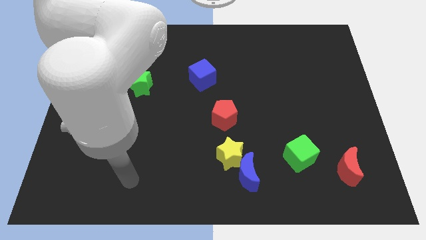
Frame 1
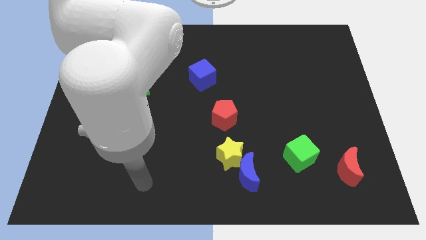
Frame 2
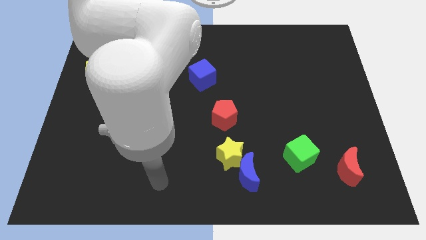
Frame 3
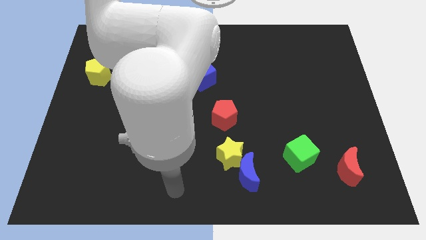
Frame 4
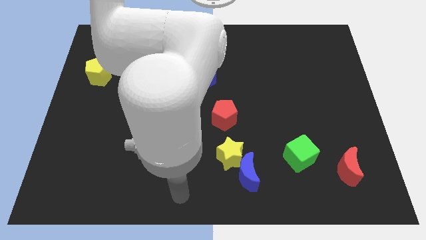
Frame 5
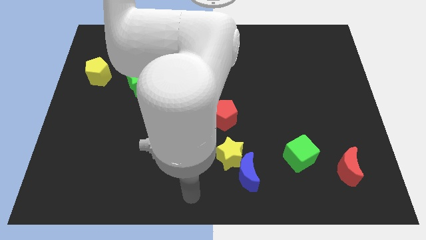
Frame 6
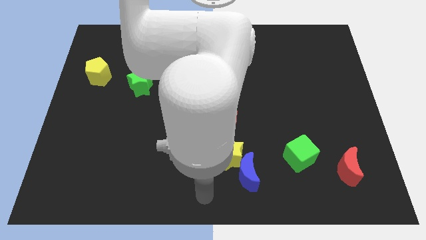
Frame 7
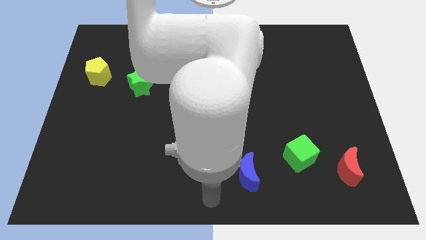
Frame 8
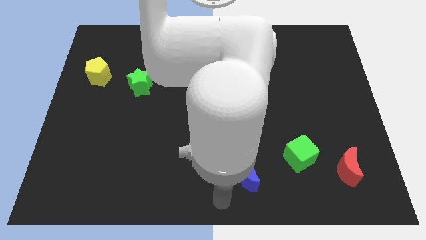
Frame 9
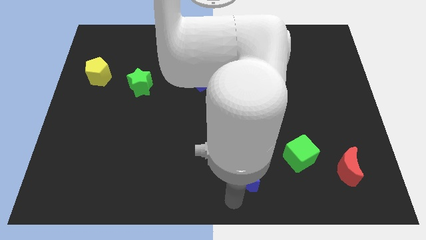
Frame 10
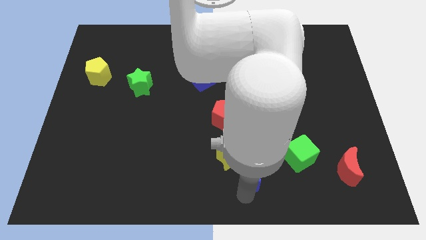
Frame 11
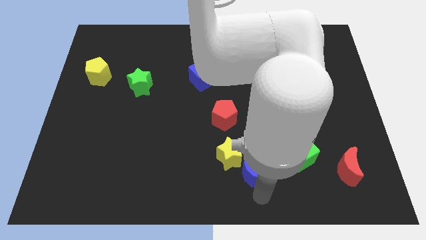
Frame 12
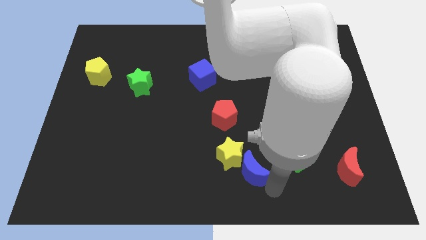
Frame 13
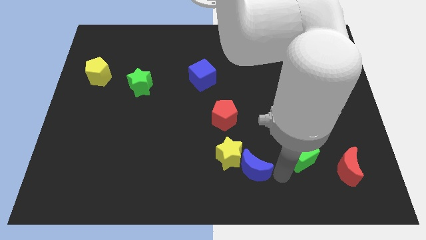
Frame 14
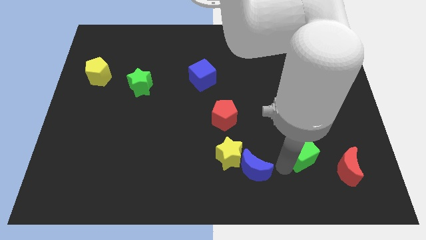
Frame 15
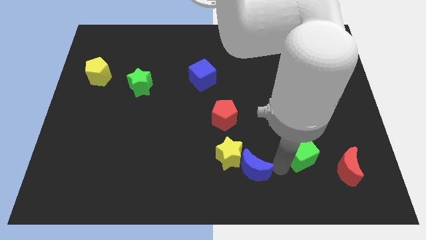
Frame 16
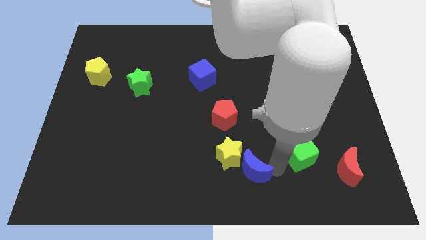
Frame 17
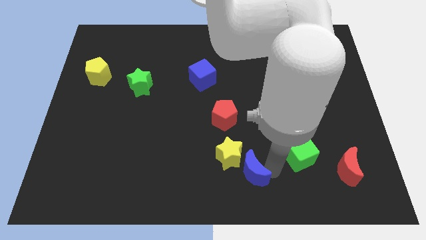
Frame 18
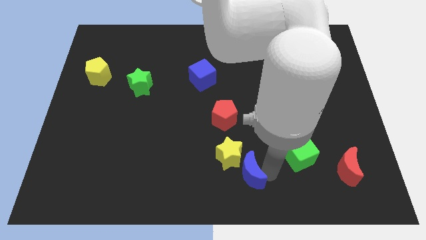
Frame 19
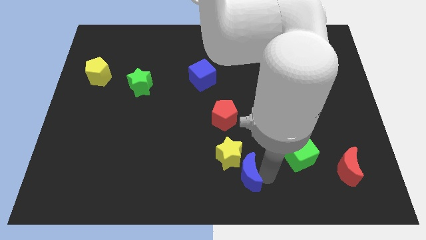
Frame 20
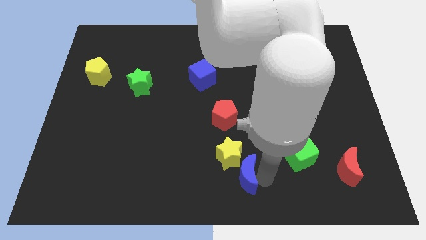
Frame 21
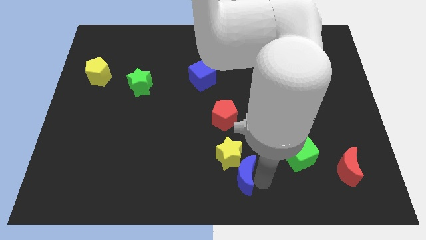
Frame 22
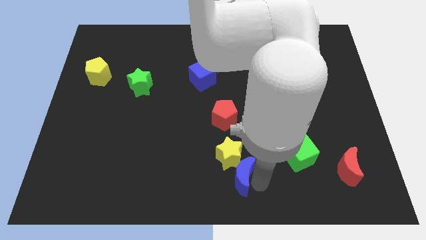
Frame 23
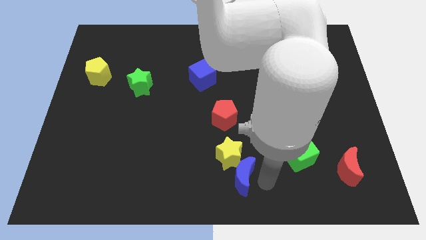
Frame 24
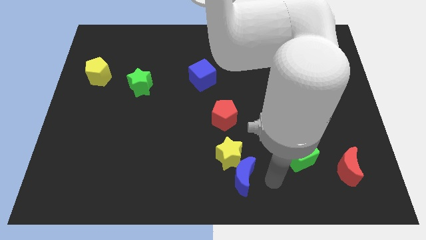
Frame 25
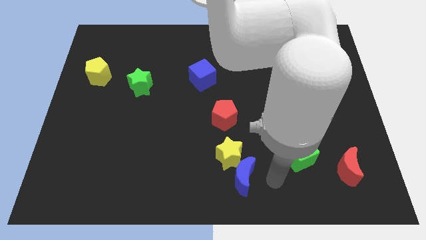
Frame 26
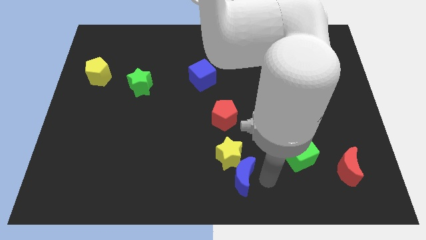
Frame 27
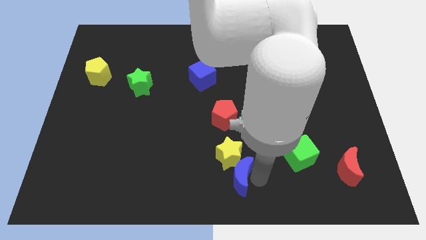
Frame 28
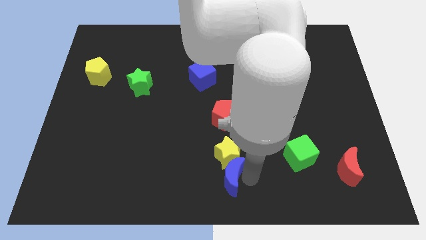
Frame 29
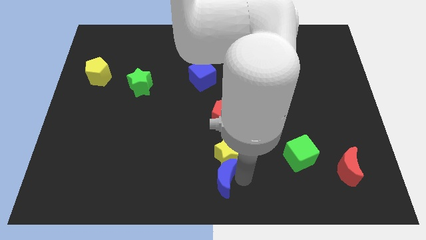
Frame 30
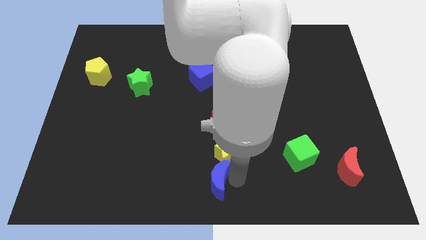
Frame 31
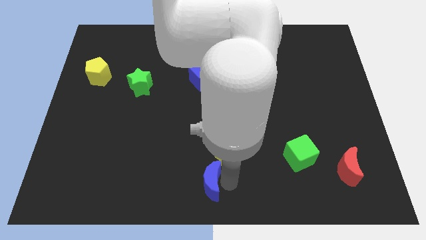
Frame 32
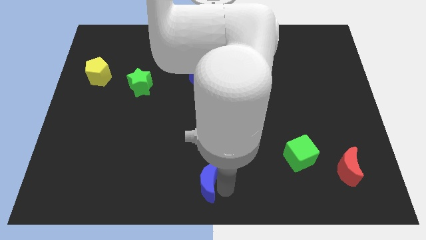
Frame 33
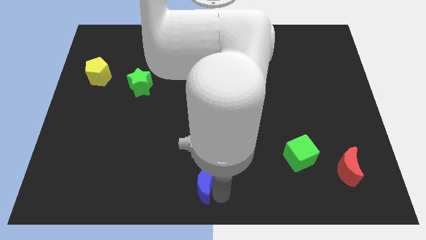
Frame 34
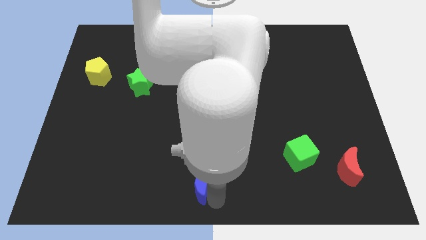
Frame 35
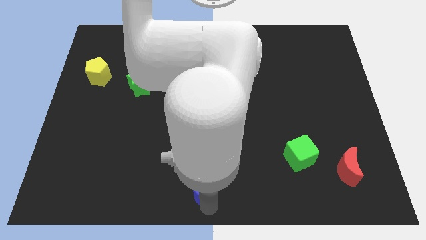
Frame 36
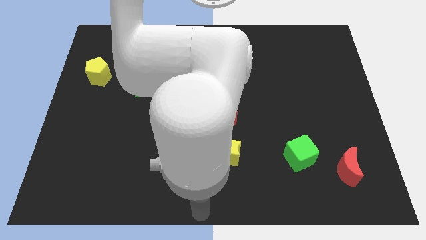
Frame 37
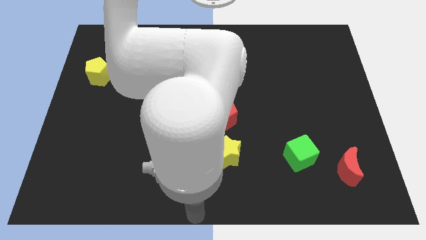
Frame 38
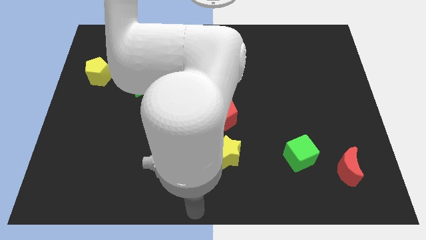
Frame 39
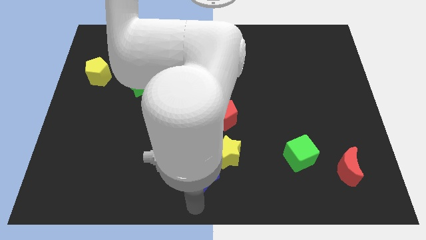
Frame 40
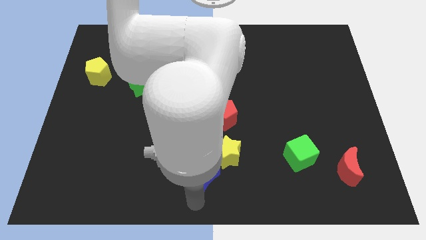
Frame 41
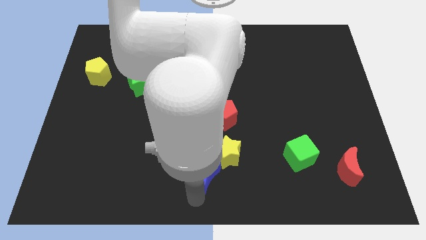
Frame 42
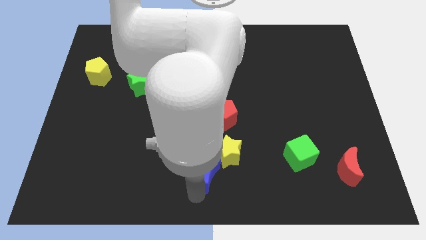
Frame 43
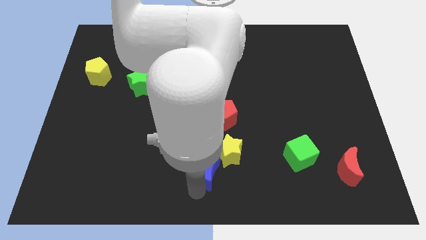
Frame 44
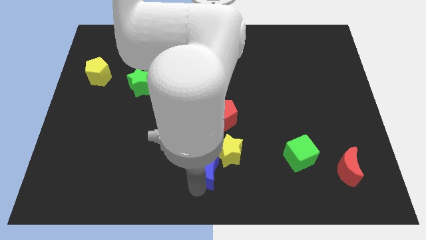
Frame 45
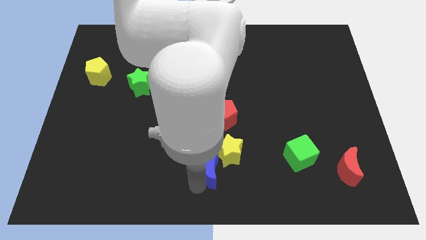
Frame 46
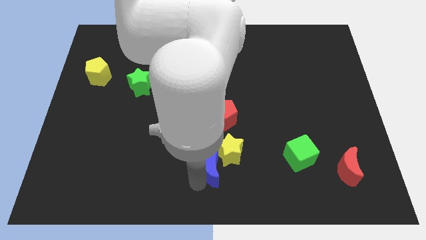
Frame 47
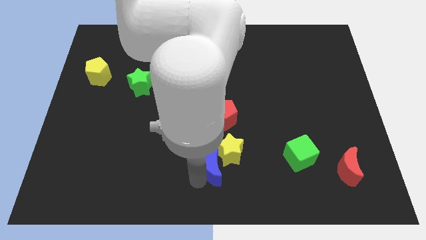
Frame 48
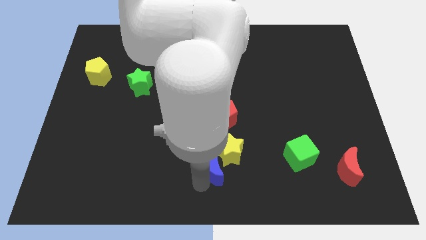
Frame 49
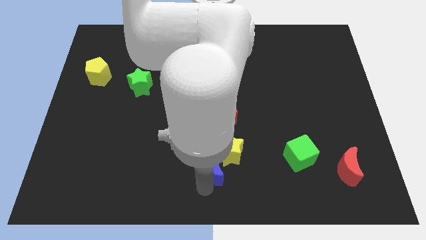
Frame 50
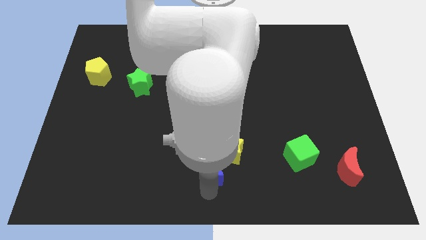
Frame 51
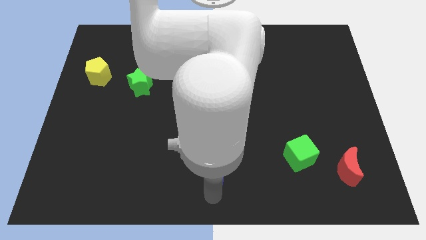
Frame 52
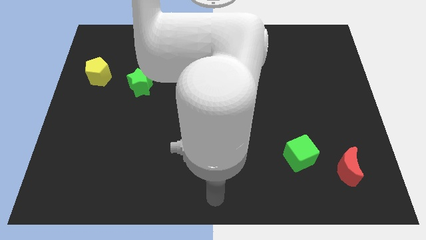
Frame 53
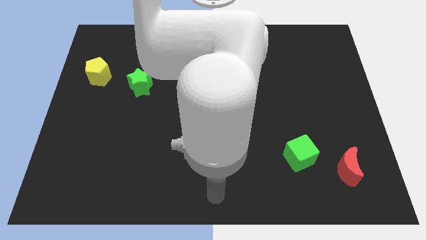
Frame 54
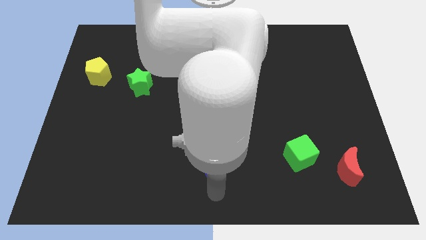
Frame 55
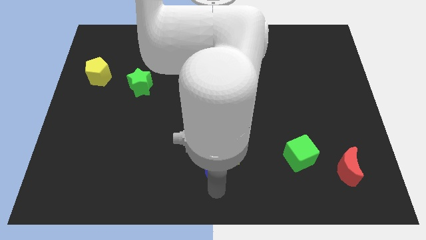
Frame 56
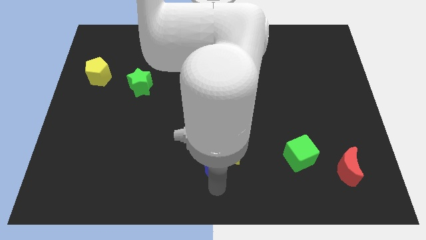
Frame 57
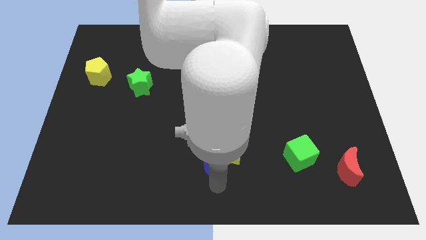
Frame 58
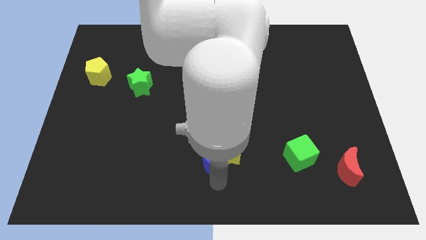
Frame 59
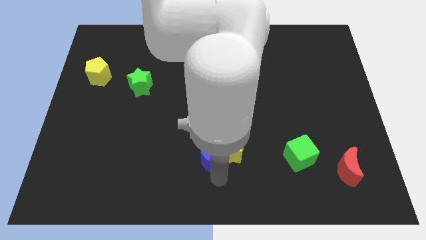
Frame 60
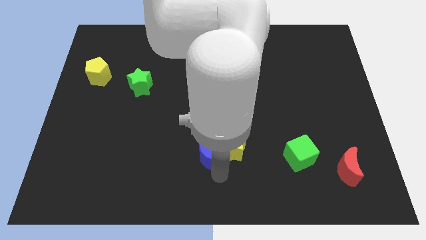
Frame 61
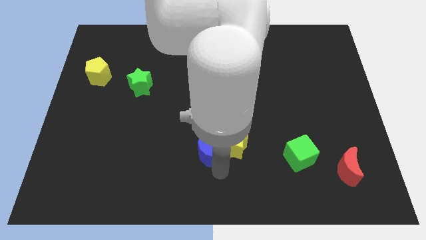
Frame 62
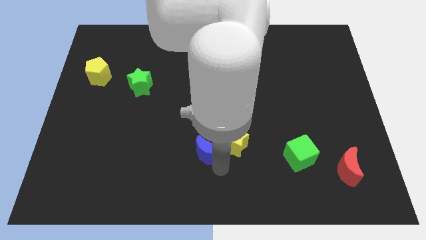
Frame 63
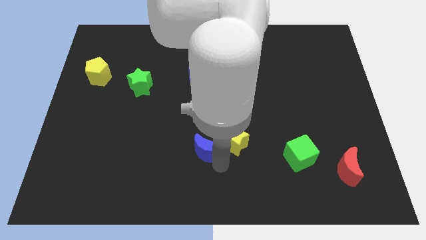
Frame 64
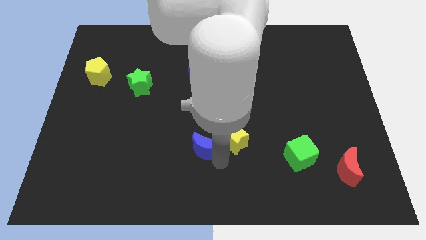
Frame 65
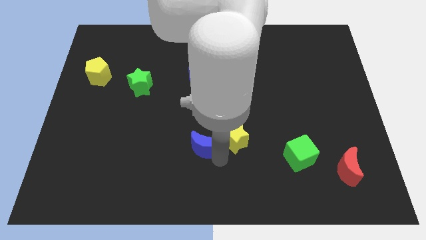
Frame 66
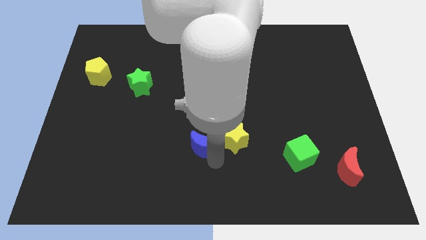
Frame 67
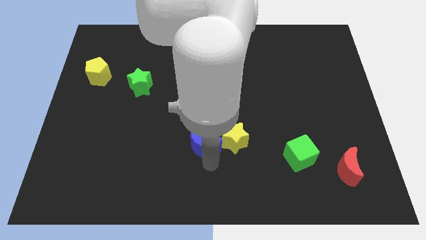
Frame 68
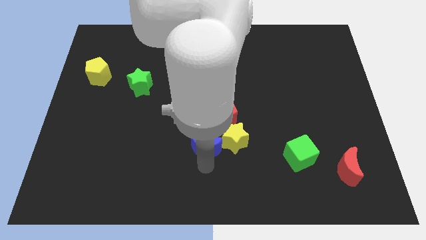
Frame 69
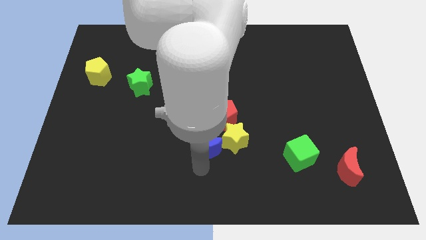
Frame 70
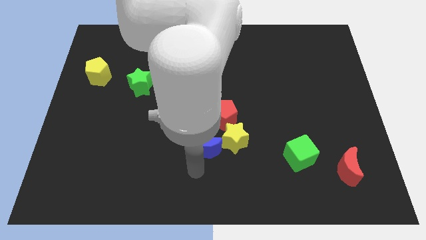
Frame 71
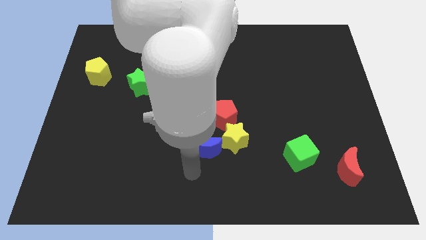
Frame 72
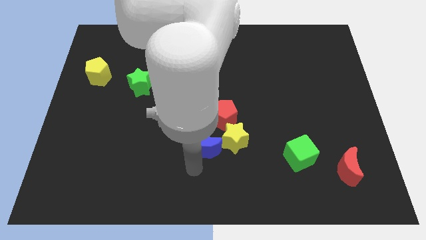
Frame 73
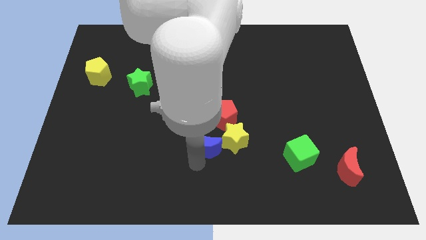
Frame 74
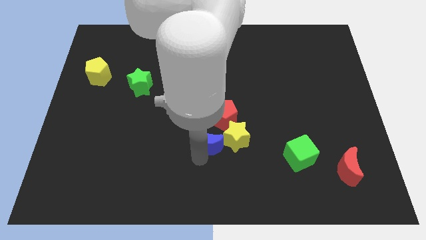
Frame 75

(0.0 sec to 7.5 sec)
move the blue moon to the middle
